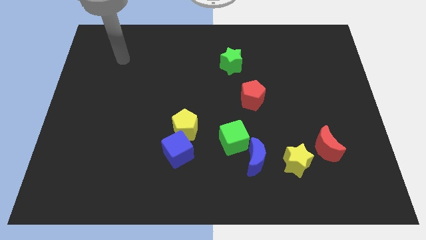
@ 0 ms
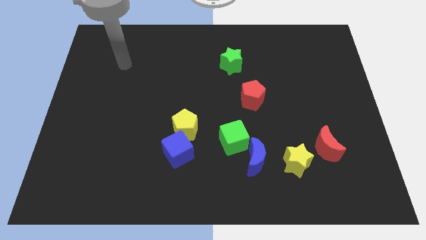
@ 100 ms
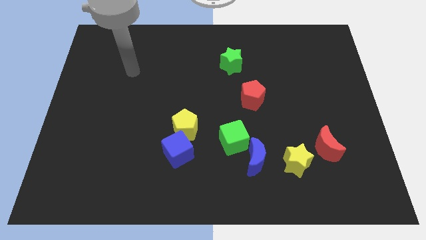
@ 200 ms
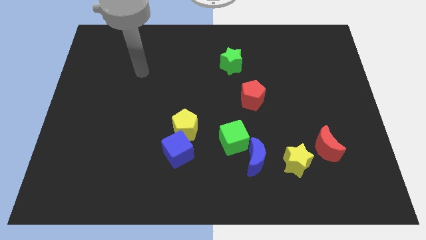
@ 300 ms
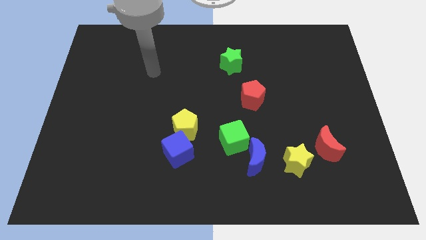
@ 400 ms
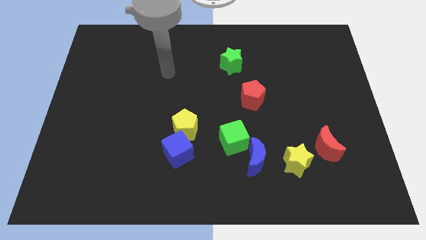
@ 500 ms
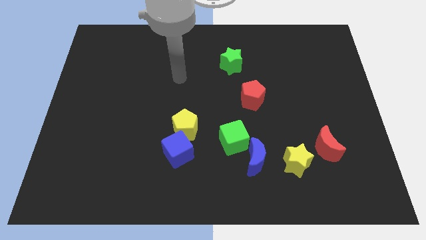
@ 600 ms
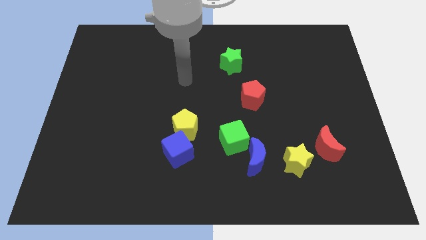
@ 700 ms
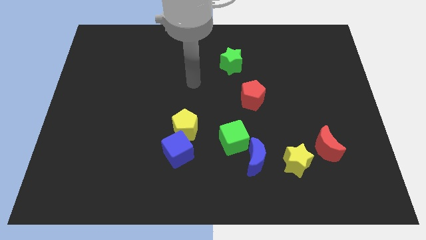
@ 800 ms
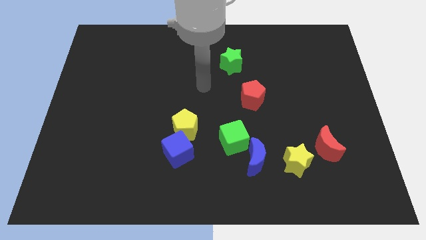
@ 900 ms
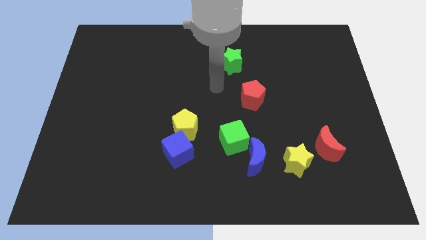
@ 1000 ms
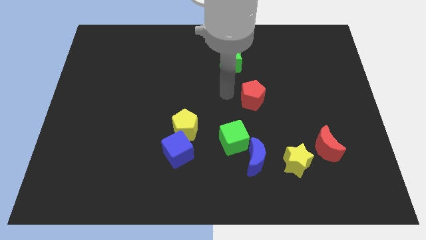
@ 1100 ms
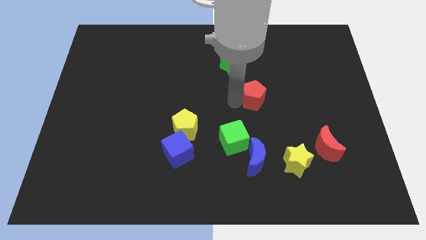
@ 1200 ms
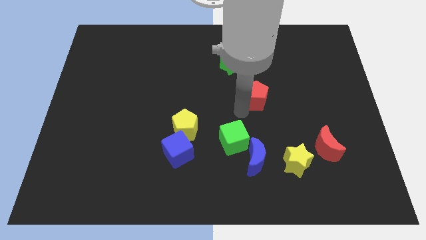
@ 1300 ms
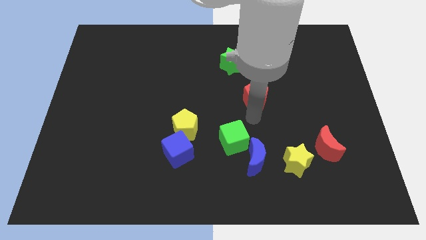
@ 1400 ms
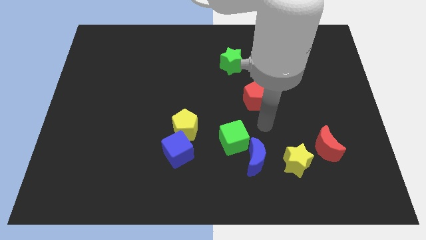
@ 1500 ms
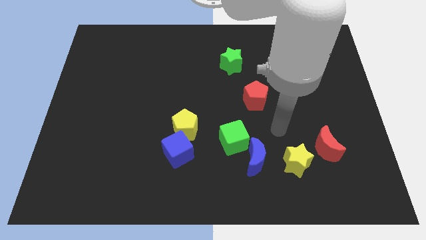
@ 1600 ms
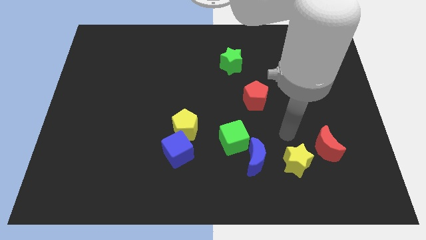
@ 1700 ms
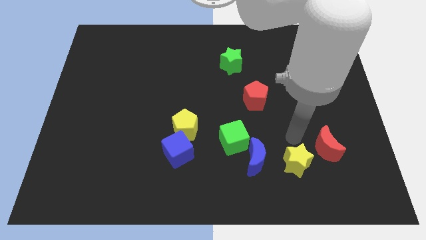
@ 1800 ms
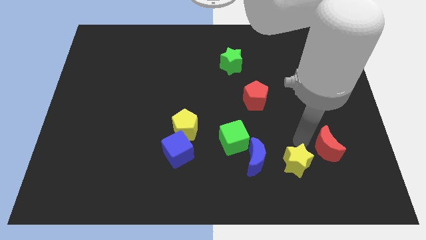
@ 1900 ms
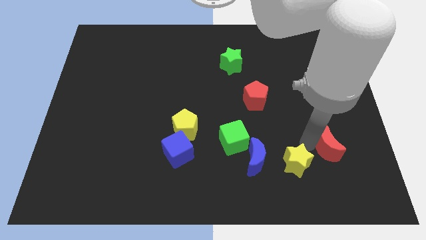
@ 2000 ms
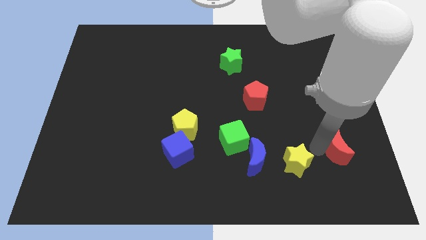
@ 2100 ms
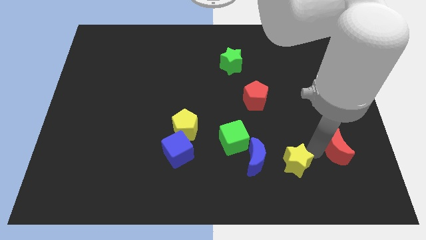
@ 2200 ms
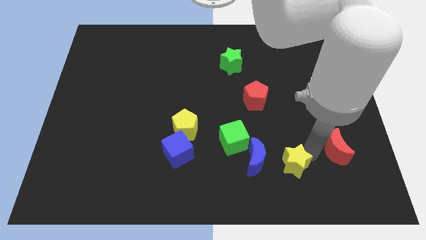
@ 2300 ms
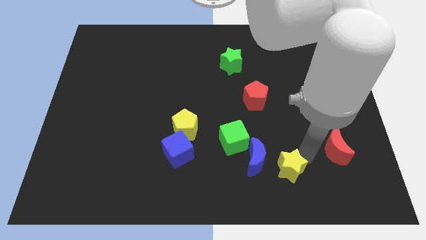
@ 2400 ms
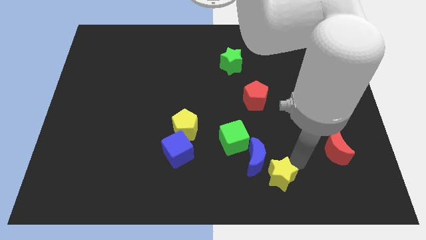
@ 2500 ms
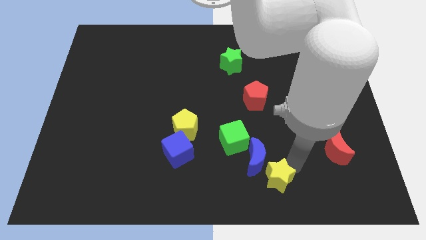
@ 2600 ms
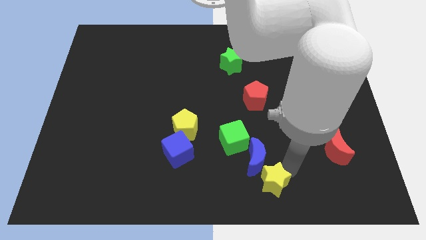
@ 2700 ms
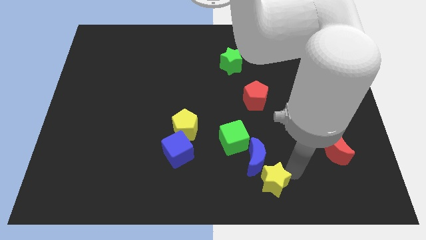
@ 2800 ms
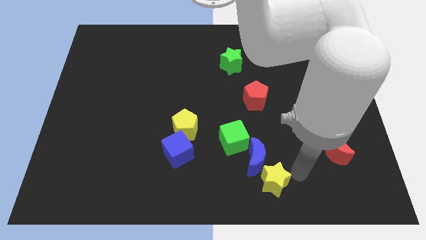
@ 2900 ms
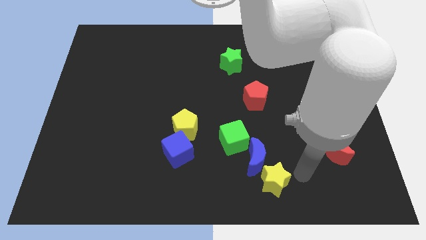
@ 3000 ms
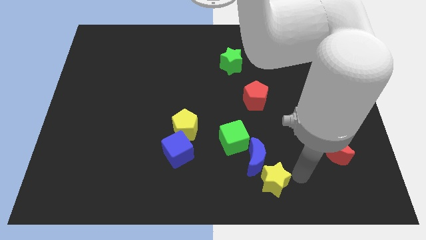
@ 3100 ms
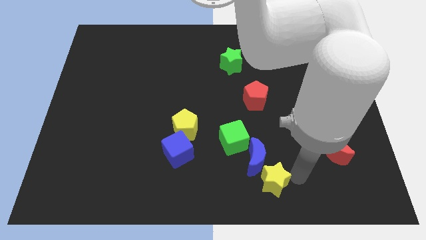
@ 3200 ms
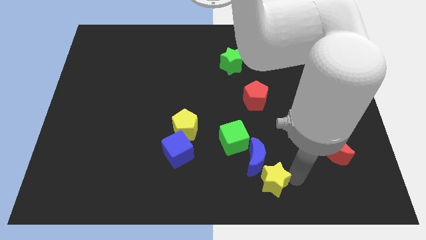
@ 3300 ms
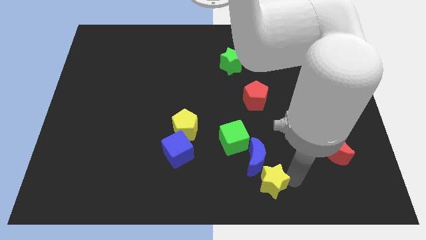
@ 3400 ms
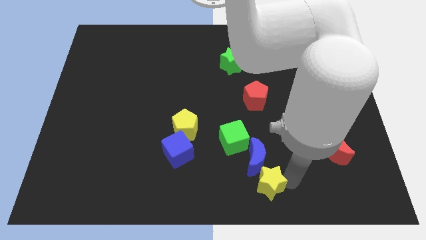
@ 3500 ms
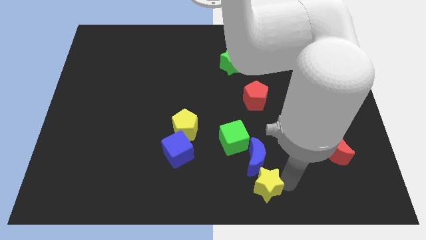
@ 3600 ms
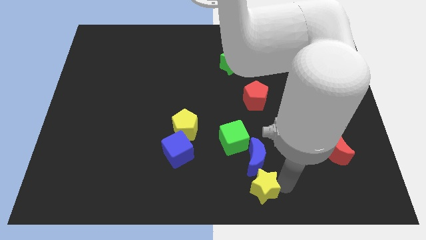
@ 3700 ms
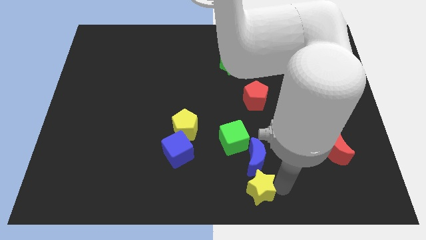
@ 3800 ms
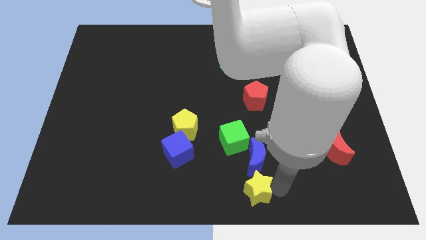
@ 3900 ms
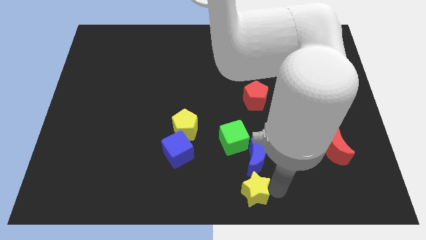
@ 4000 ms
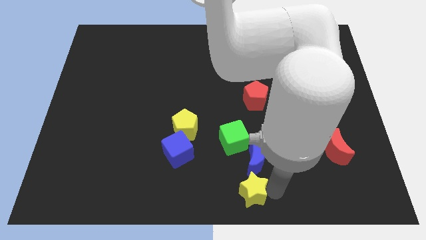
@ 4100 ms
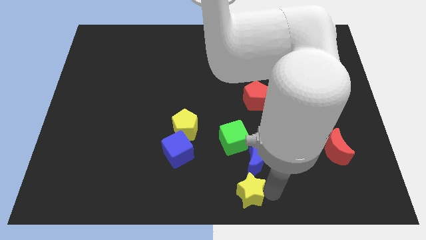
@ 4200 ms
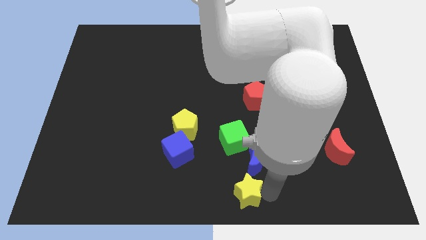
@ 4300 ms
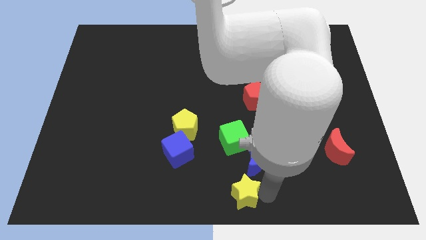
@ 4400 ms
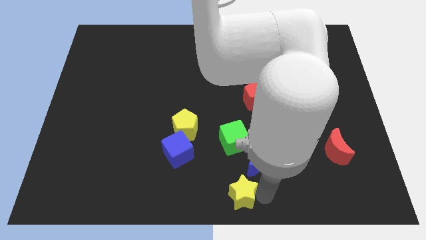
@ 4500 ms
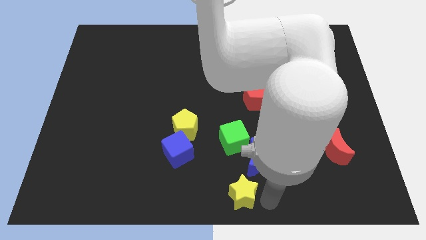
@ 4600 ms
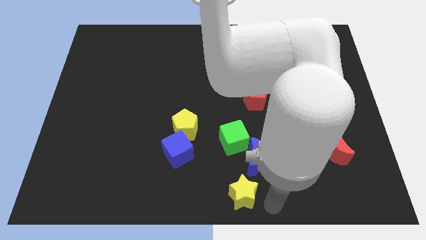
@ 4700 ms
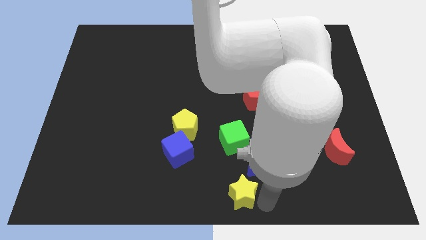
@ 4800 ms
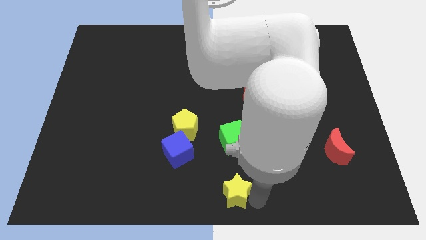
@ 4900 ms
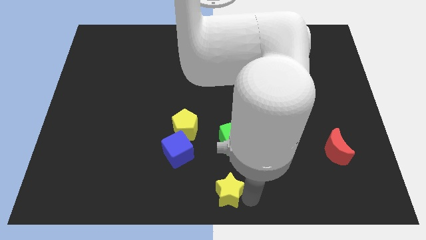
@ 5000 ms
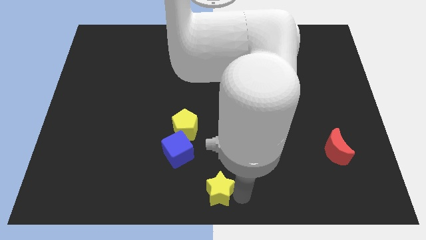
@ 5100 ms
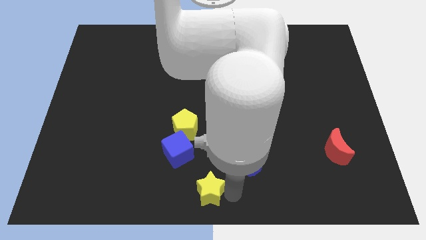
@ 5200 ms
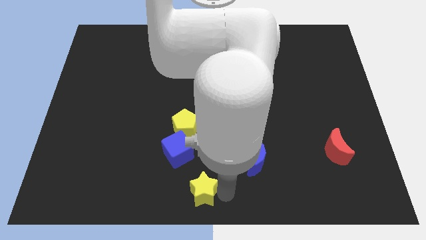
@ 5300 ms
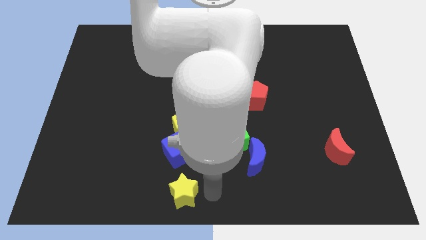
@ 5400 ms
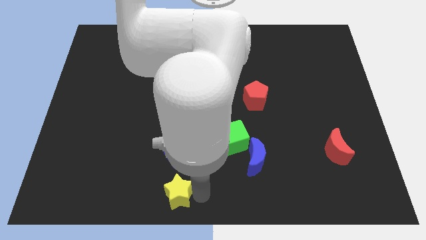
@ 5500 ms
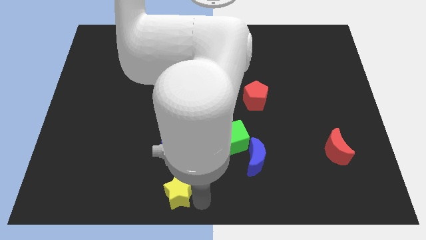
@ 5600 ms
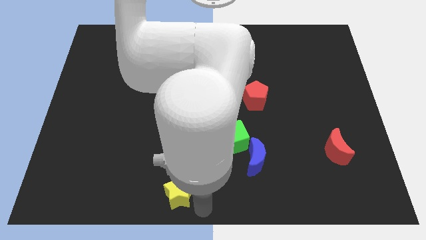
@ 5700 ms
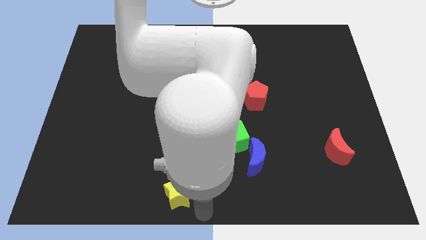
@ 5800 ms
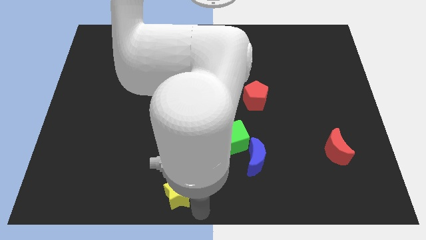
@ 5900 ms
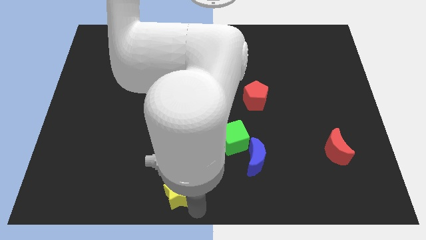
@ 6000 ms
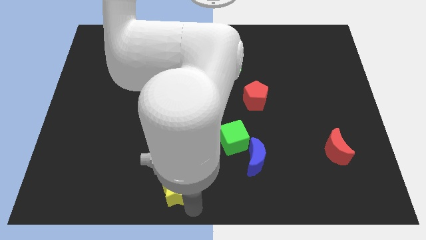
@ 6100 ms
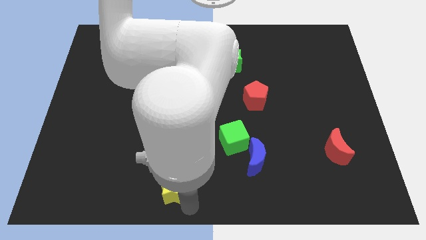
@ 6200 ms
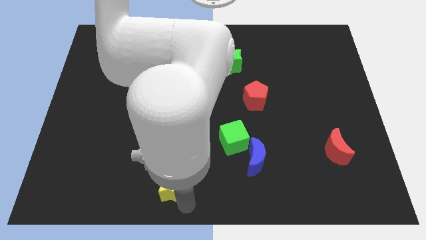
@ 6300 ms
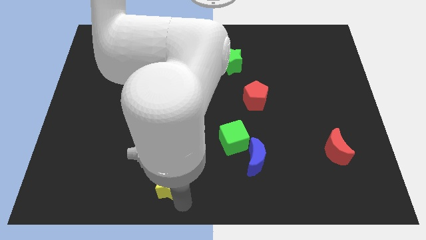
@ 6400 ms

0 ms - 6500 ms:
move the yellow star diagonally down and to the left of the blue cube

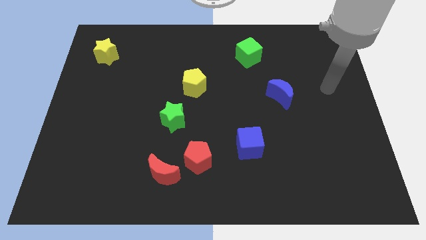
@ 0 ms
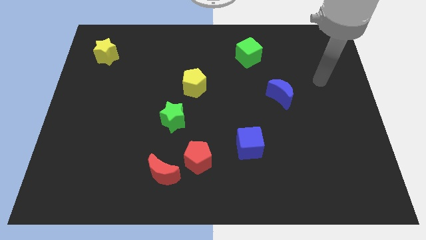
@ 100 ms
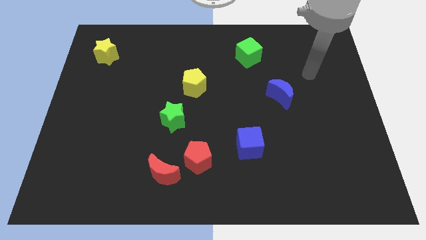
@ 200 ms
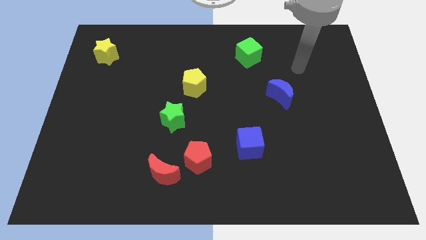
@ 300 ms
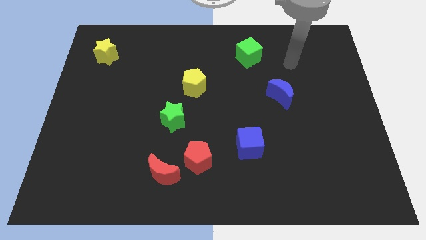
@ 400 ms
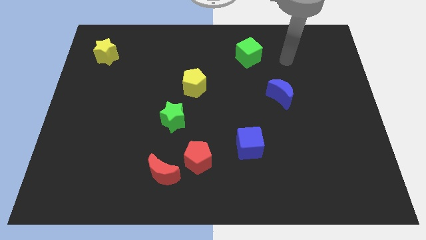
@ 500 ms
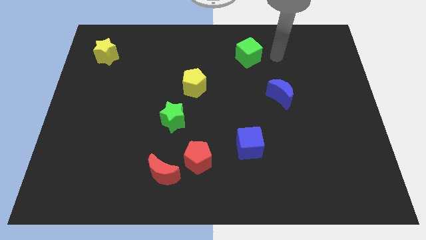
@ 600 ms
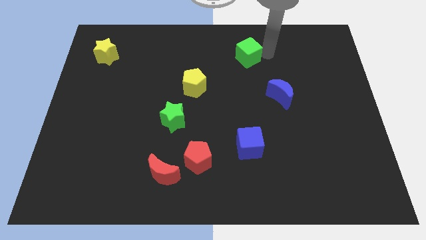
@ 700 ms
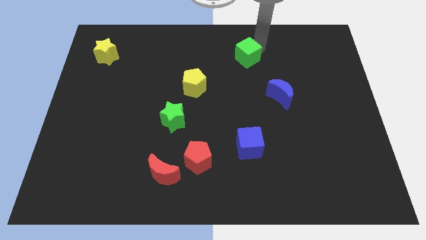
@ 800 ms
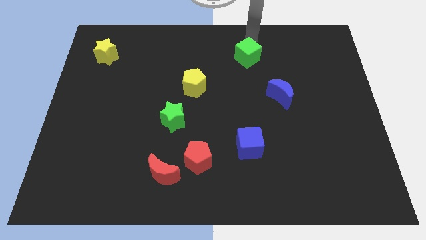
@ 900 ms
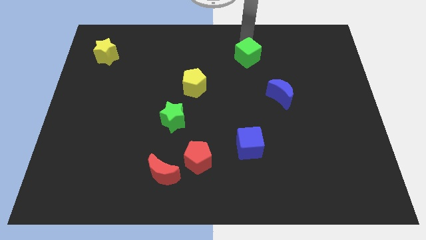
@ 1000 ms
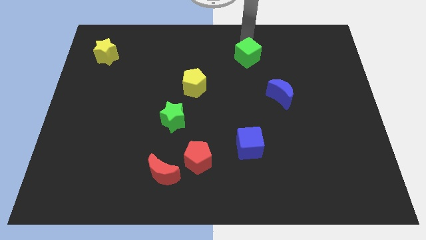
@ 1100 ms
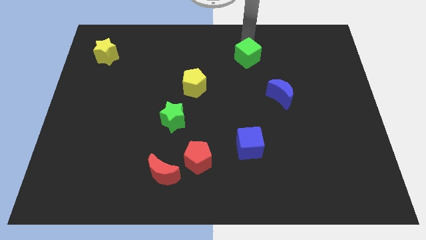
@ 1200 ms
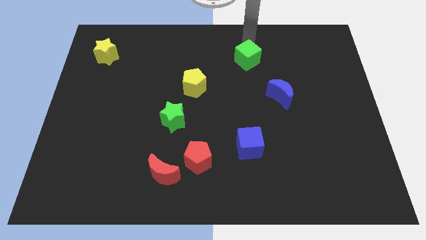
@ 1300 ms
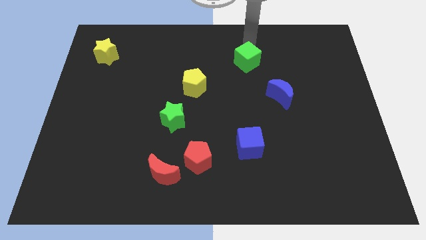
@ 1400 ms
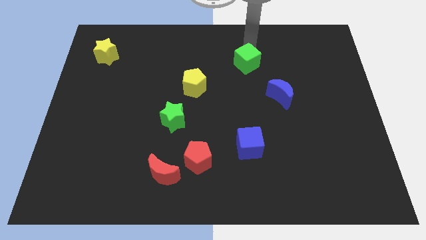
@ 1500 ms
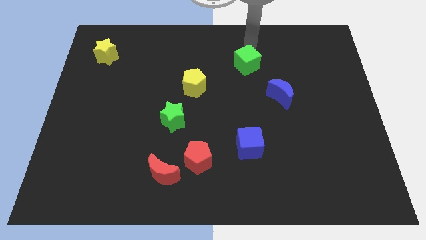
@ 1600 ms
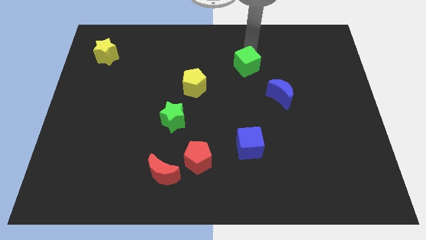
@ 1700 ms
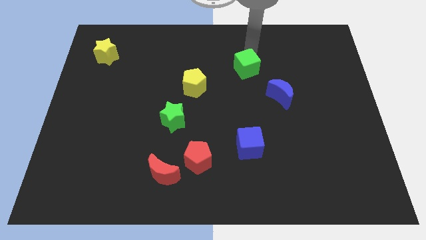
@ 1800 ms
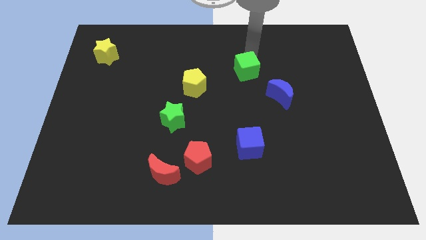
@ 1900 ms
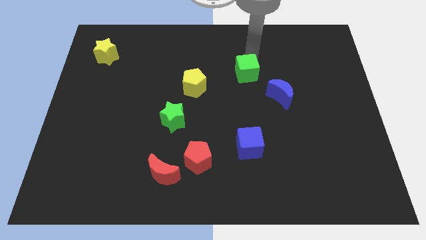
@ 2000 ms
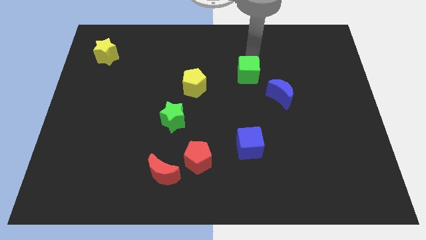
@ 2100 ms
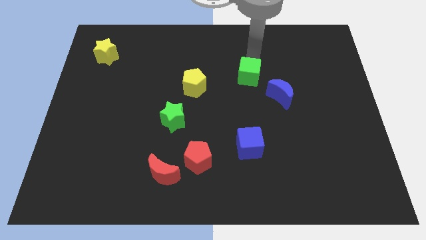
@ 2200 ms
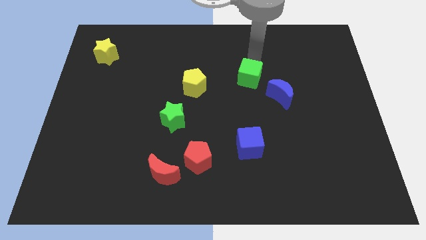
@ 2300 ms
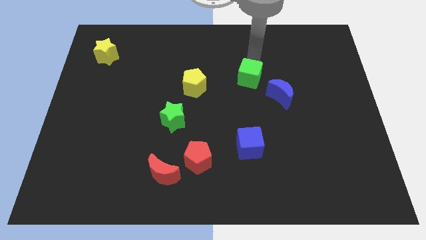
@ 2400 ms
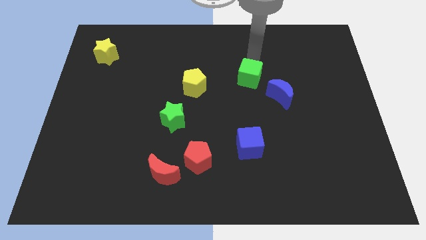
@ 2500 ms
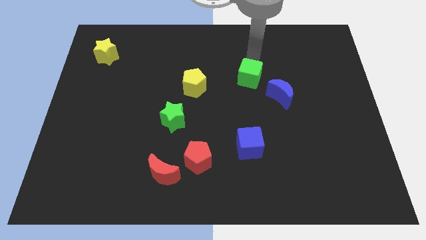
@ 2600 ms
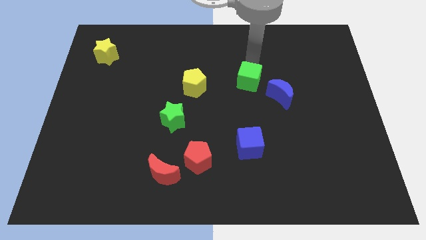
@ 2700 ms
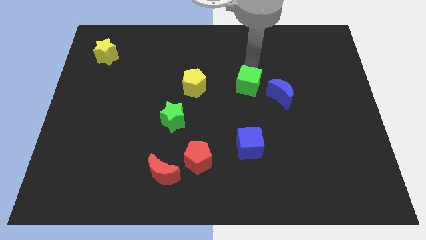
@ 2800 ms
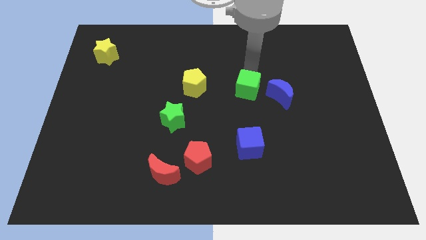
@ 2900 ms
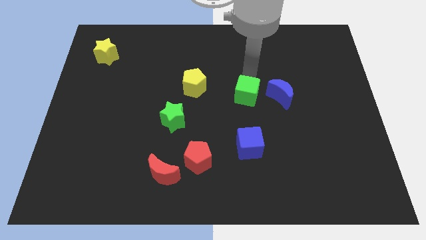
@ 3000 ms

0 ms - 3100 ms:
push the green cube above the blue cube
